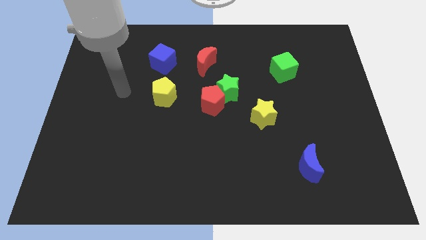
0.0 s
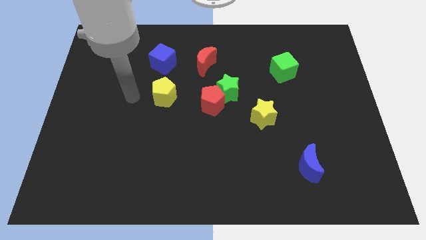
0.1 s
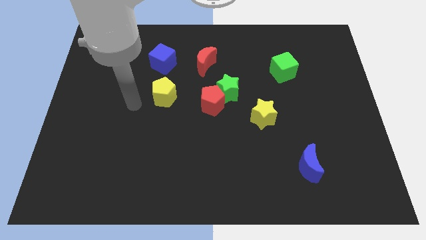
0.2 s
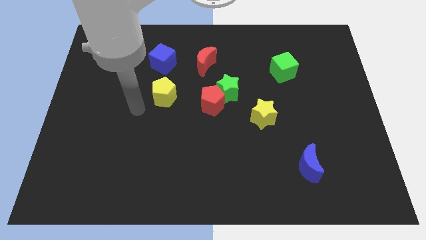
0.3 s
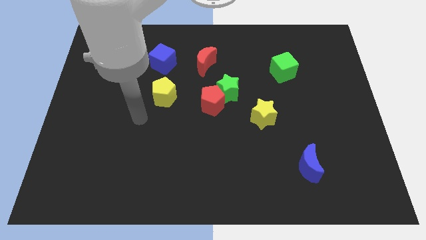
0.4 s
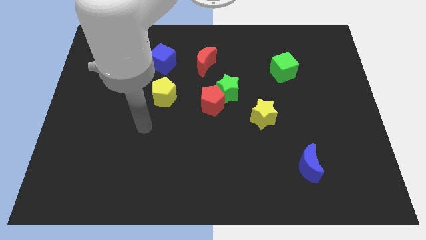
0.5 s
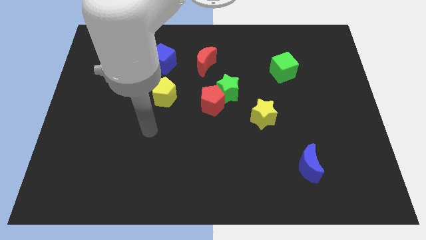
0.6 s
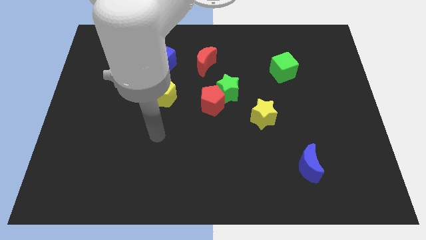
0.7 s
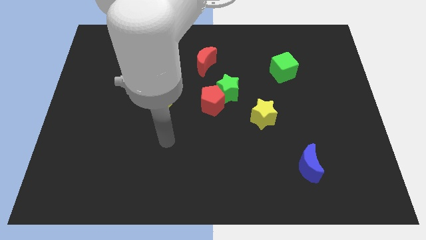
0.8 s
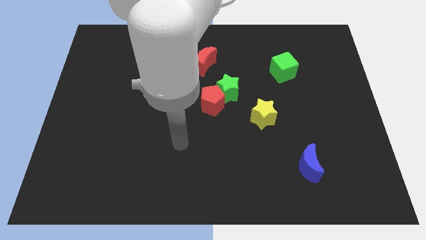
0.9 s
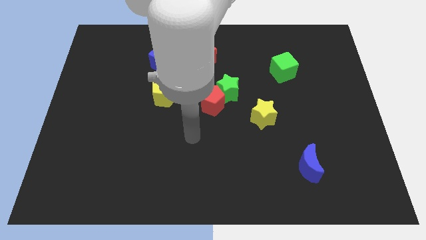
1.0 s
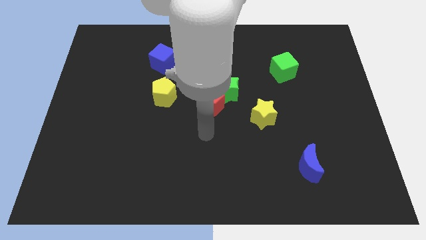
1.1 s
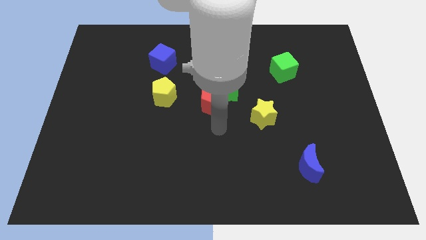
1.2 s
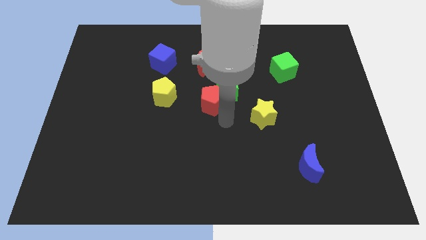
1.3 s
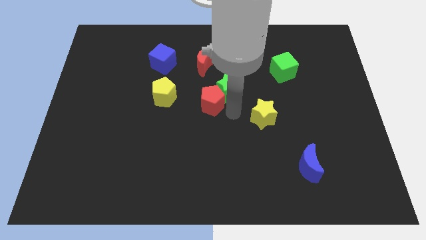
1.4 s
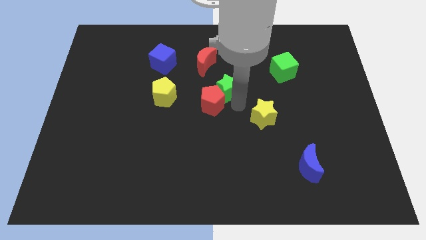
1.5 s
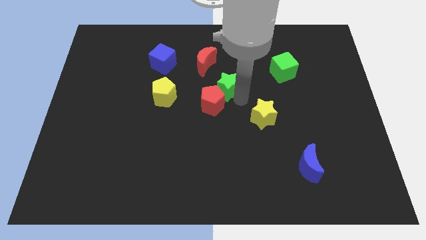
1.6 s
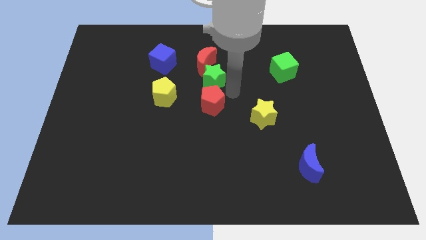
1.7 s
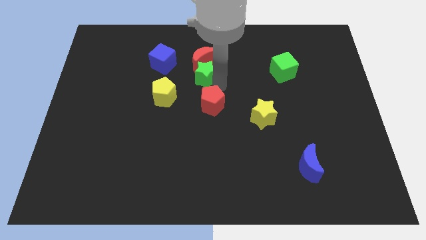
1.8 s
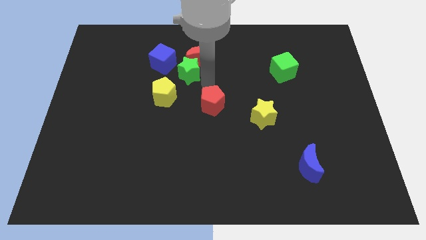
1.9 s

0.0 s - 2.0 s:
pull the red pentagon apart from the green star

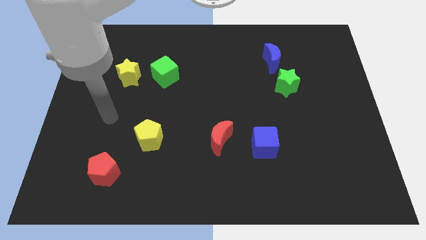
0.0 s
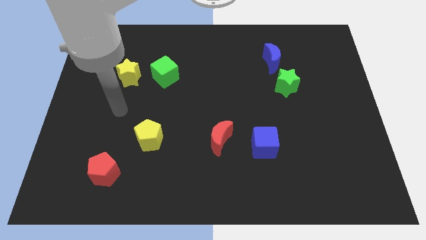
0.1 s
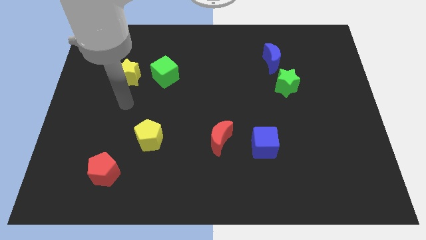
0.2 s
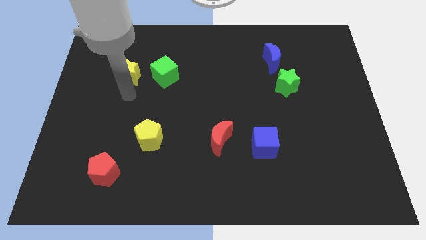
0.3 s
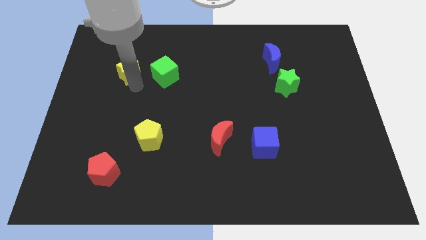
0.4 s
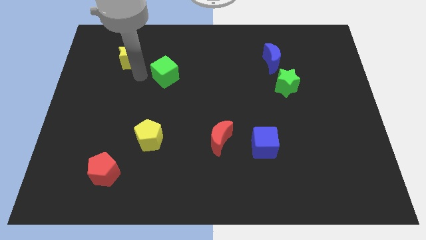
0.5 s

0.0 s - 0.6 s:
separate the green cube from the yellow star

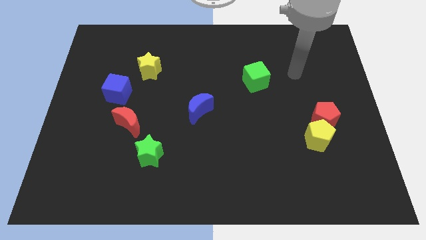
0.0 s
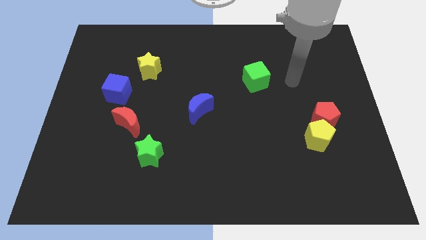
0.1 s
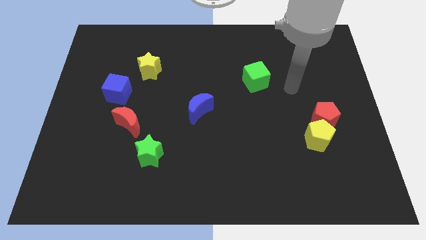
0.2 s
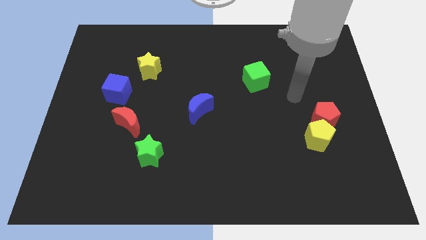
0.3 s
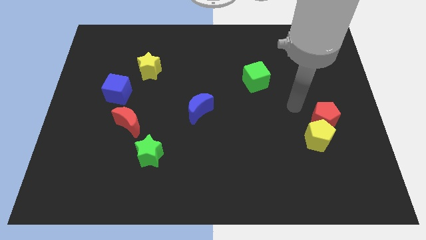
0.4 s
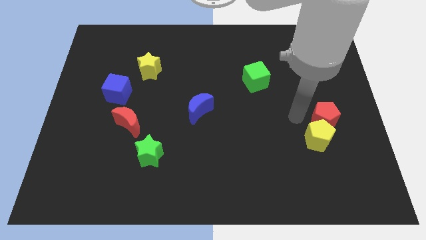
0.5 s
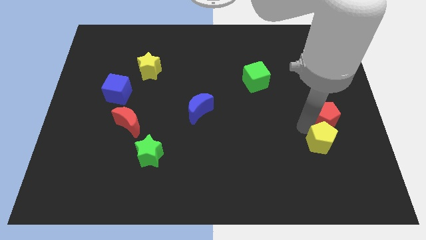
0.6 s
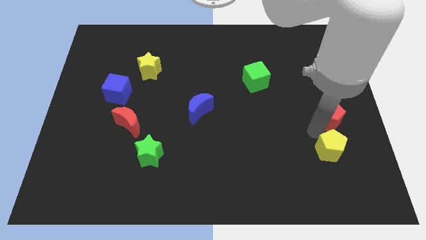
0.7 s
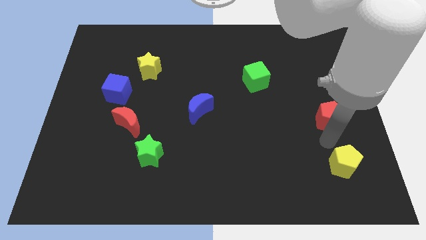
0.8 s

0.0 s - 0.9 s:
pull the red pentagon apart from the yellow pentagon

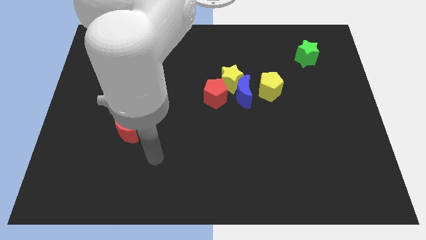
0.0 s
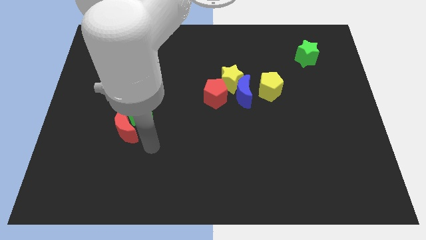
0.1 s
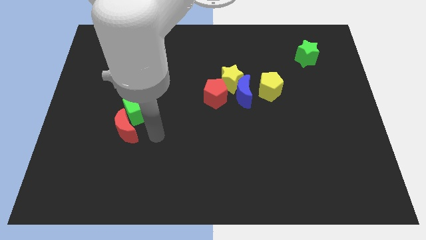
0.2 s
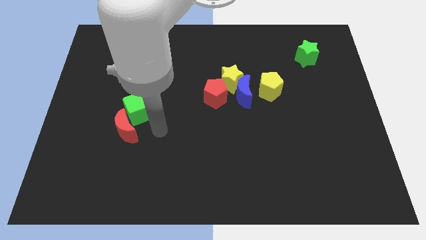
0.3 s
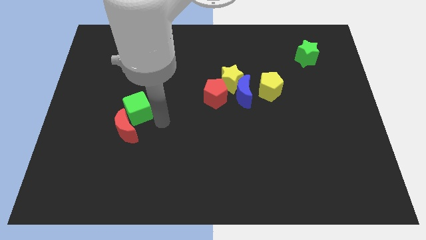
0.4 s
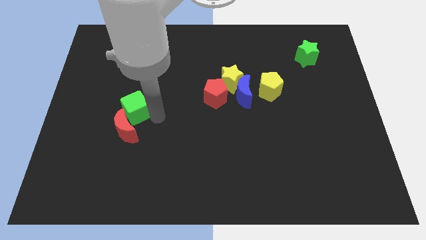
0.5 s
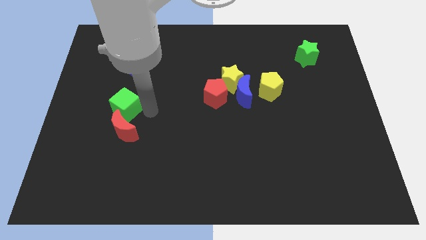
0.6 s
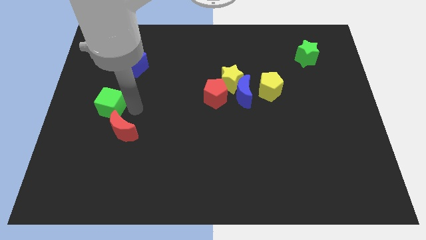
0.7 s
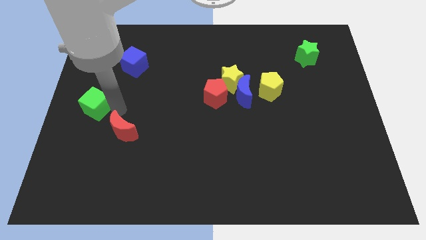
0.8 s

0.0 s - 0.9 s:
pull the red moon apart from the green cube

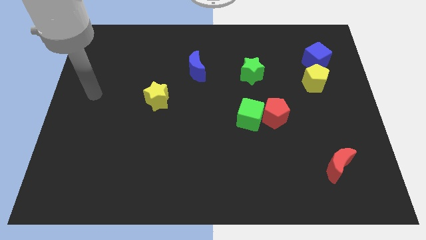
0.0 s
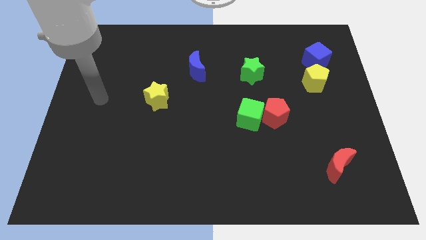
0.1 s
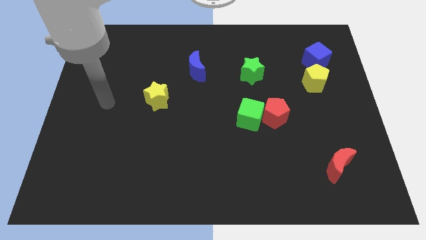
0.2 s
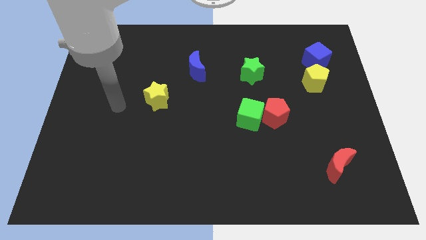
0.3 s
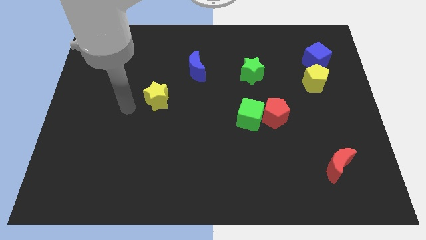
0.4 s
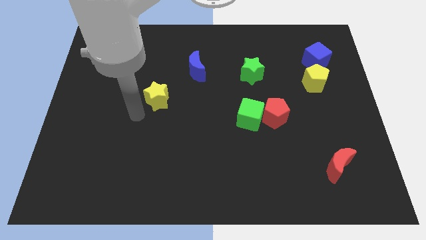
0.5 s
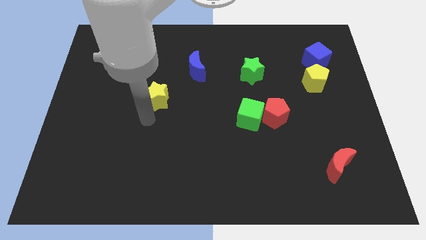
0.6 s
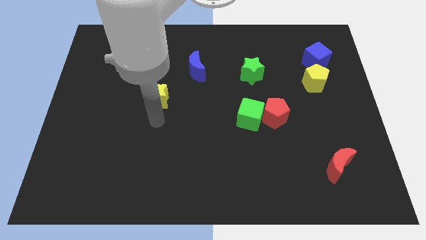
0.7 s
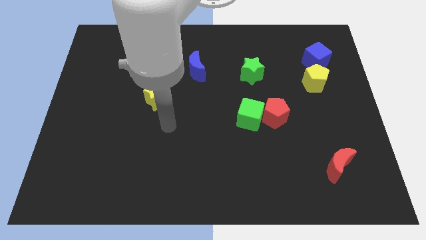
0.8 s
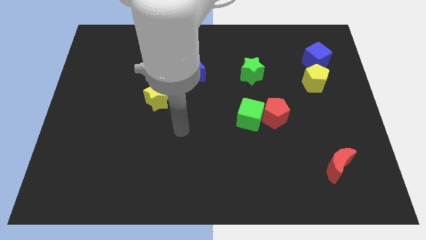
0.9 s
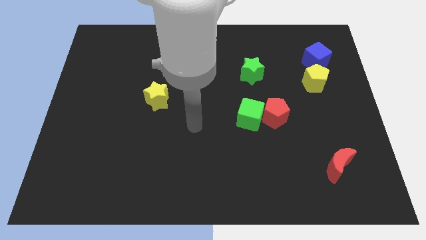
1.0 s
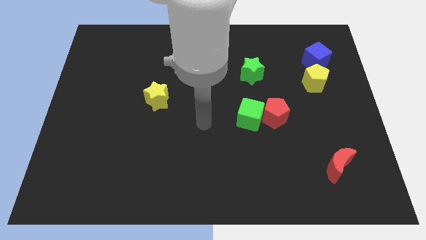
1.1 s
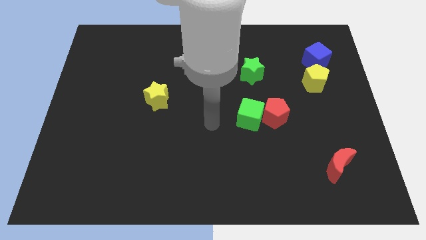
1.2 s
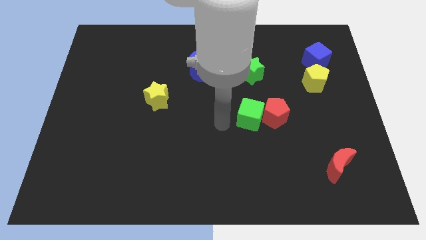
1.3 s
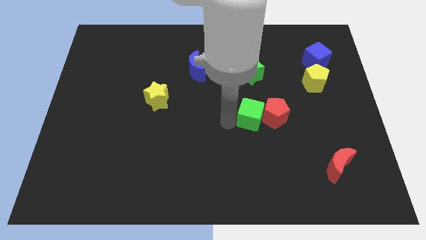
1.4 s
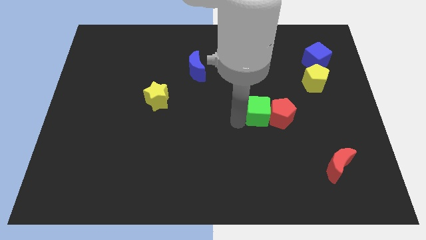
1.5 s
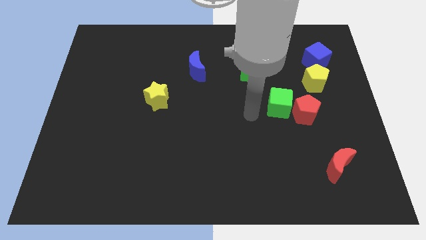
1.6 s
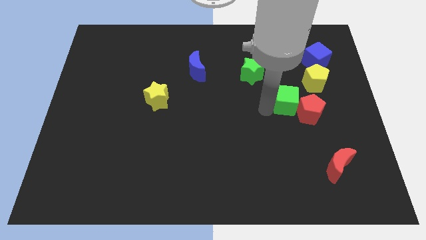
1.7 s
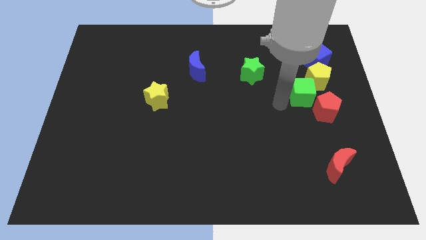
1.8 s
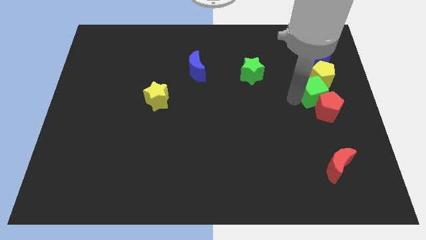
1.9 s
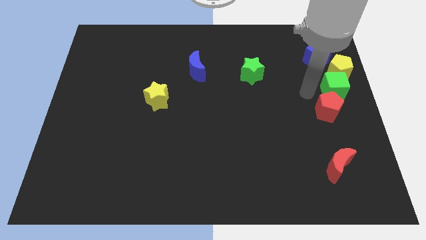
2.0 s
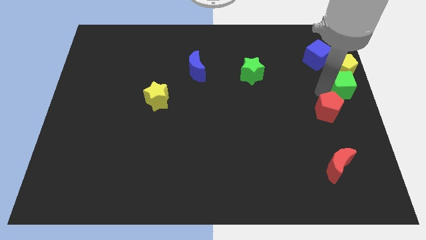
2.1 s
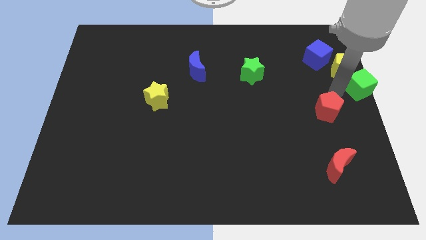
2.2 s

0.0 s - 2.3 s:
move the red pentagon away from the green cube

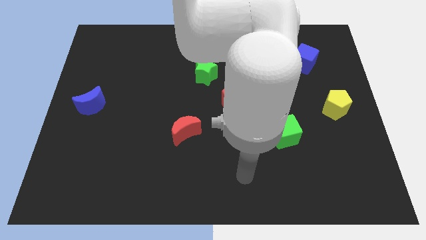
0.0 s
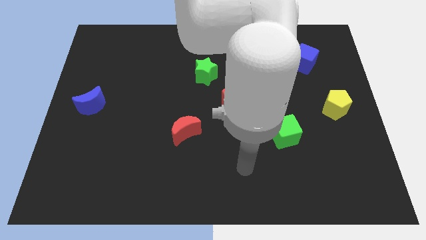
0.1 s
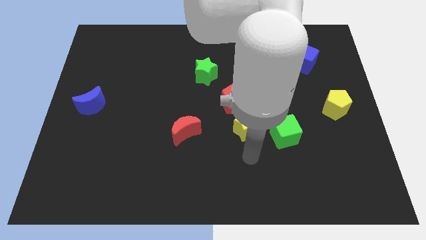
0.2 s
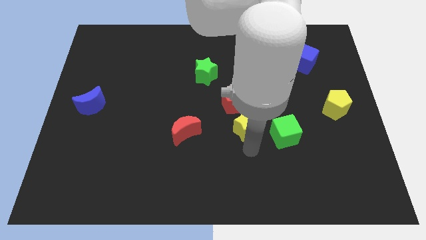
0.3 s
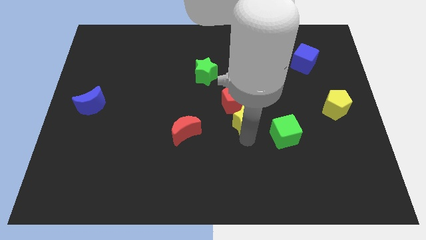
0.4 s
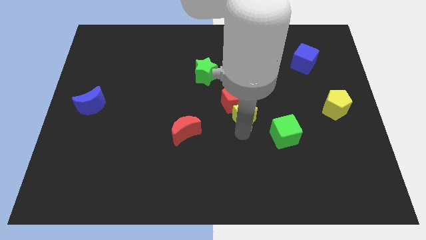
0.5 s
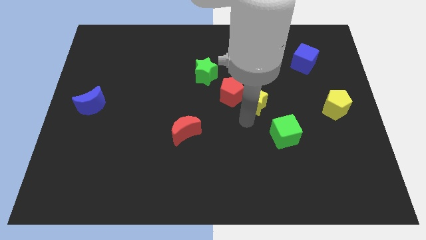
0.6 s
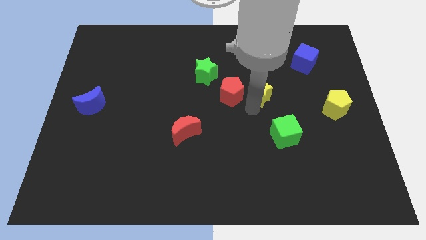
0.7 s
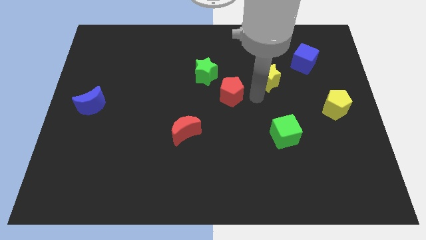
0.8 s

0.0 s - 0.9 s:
separate the red pentagon from the yellow star

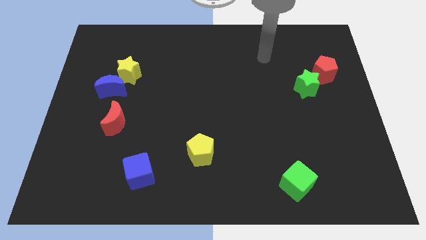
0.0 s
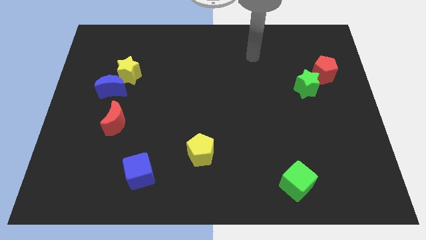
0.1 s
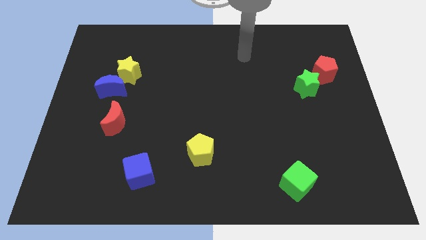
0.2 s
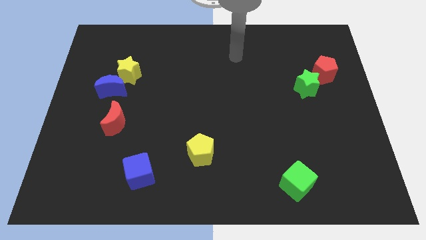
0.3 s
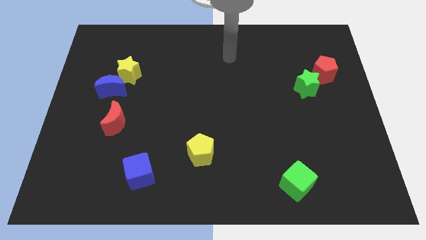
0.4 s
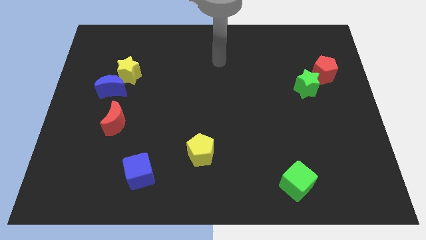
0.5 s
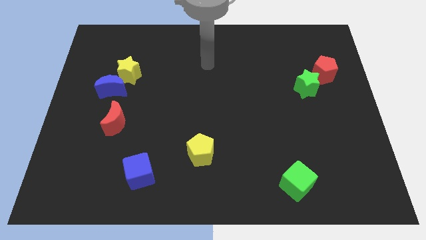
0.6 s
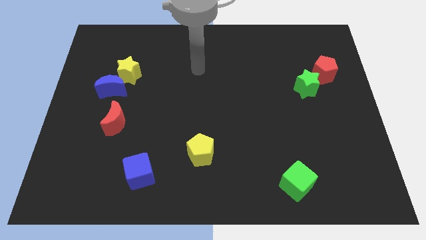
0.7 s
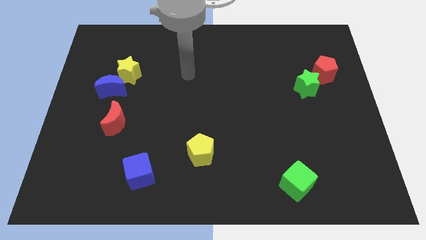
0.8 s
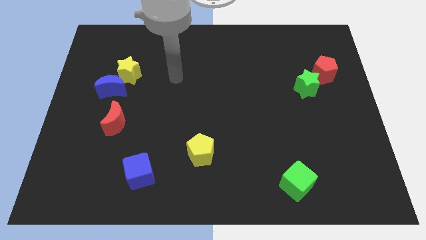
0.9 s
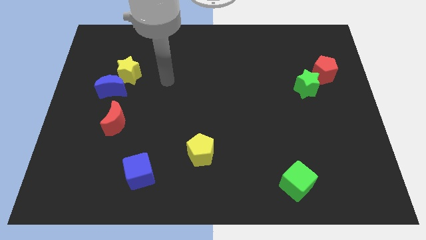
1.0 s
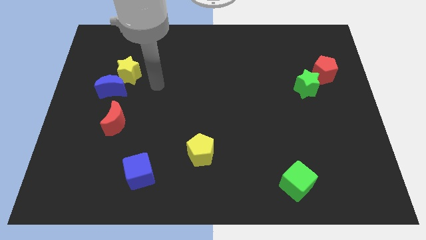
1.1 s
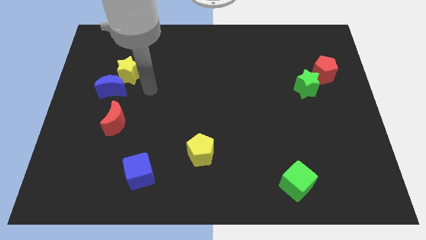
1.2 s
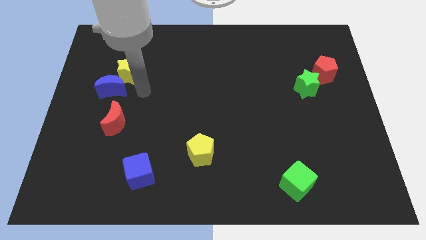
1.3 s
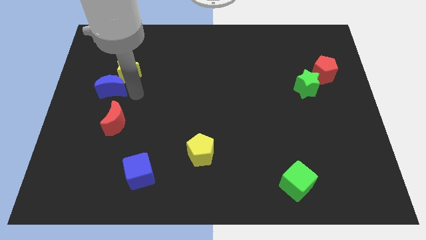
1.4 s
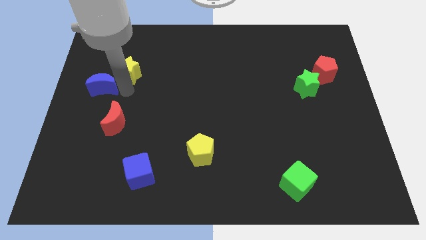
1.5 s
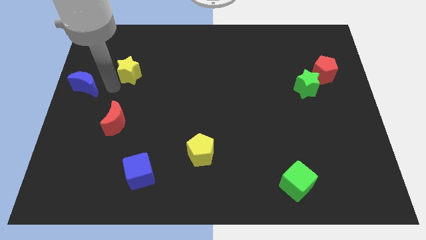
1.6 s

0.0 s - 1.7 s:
move the yellow star away from the blue moon
